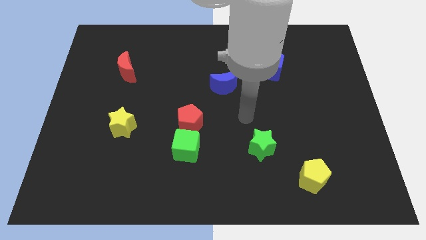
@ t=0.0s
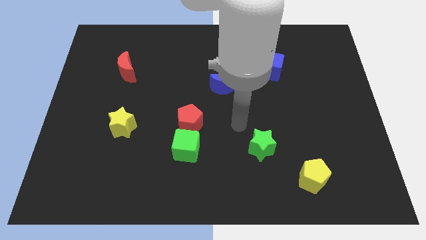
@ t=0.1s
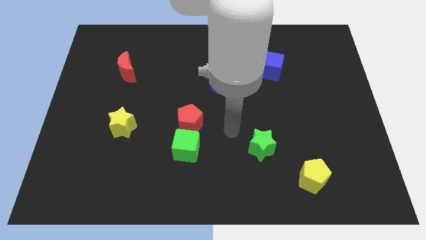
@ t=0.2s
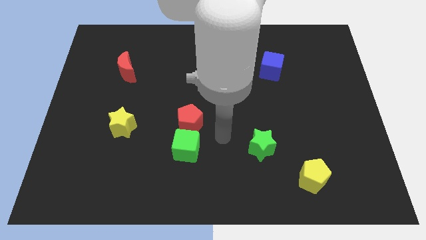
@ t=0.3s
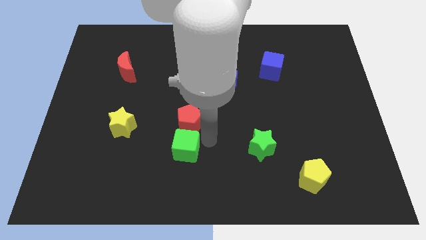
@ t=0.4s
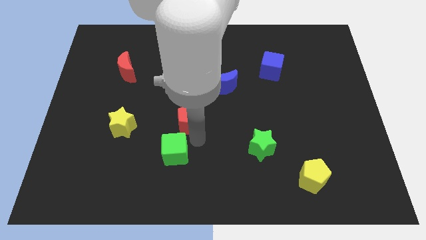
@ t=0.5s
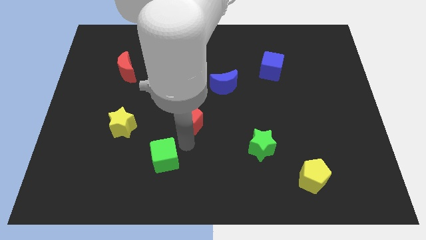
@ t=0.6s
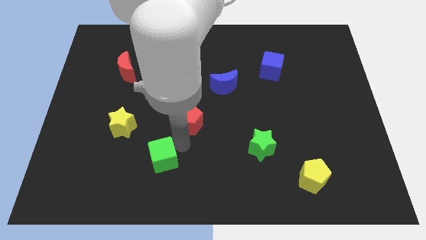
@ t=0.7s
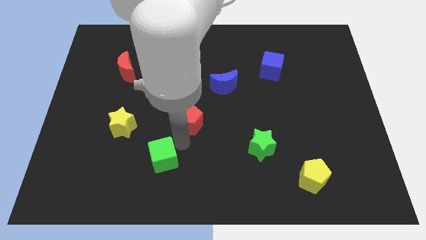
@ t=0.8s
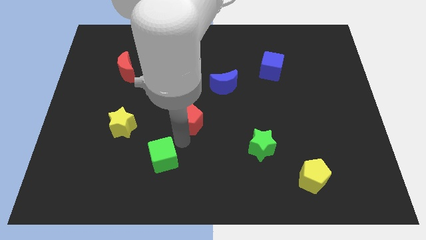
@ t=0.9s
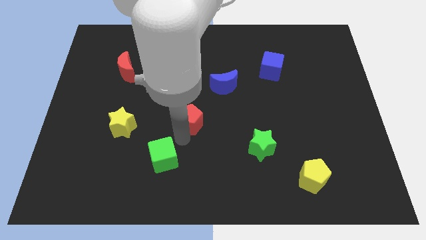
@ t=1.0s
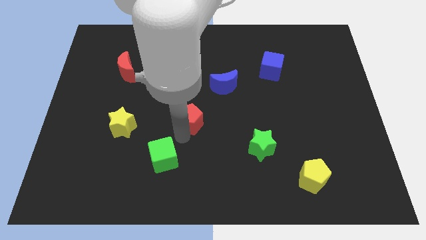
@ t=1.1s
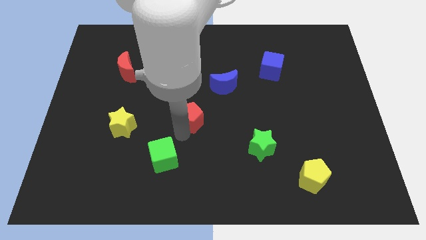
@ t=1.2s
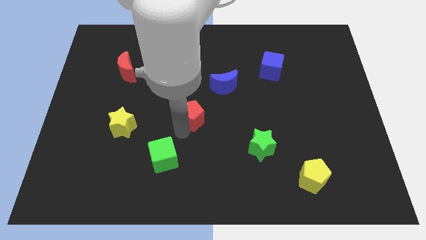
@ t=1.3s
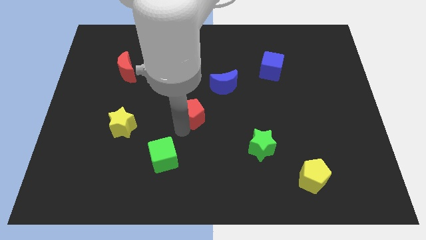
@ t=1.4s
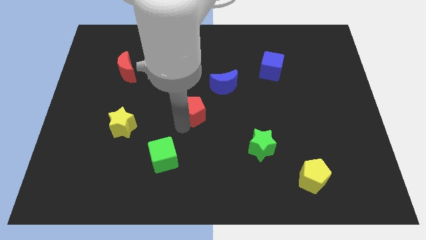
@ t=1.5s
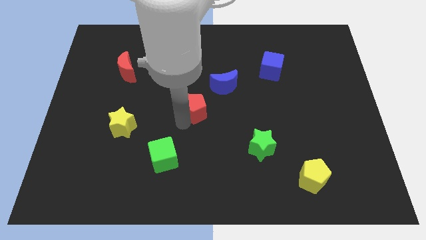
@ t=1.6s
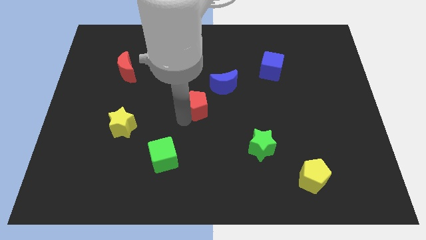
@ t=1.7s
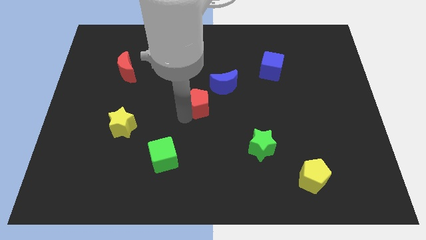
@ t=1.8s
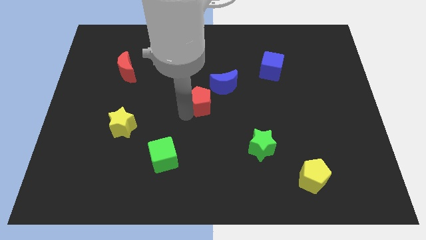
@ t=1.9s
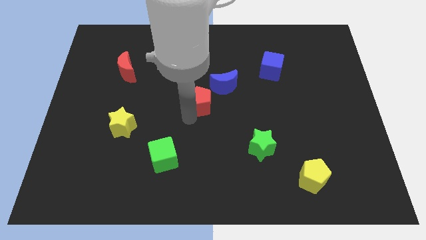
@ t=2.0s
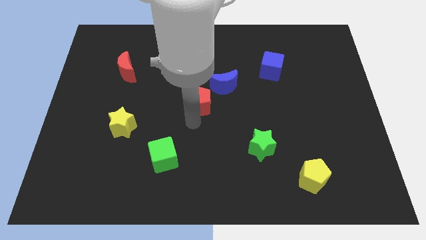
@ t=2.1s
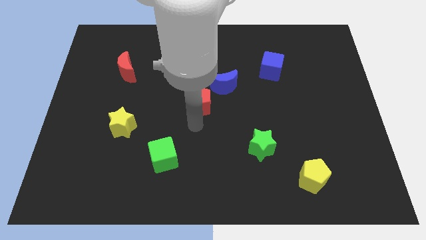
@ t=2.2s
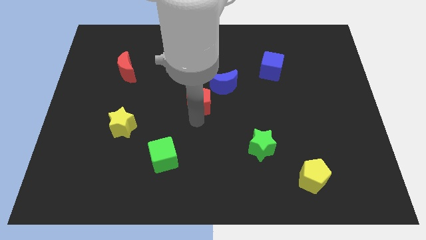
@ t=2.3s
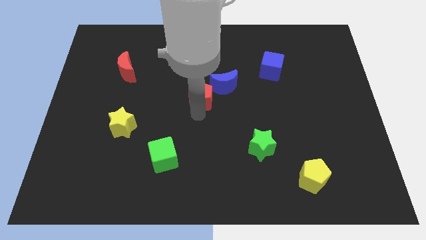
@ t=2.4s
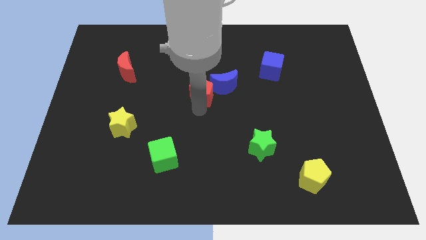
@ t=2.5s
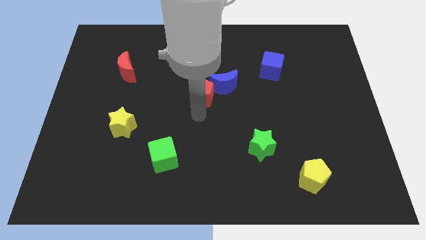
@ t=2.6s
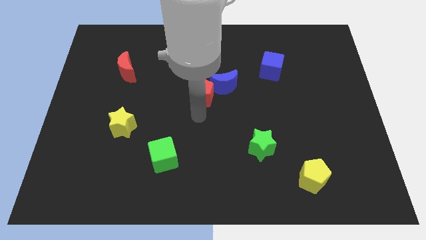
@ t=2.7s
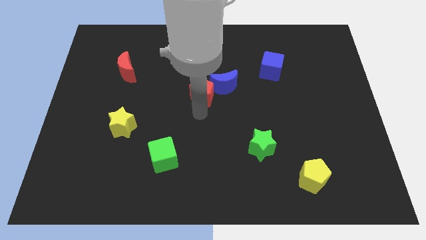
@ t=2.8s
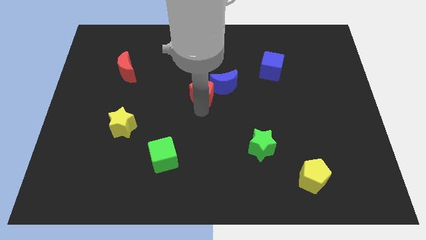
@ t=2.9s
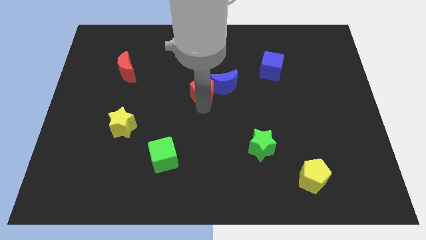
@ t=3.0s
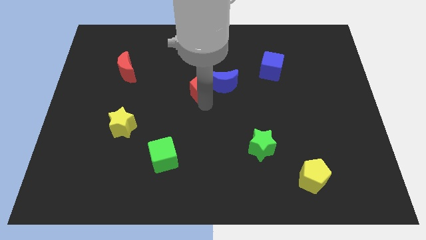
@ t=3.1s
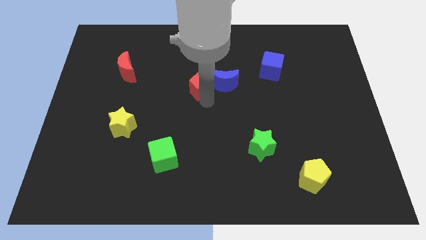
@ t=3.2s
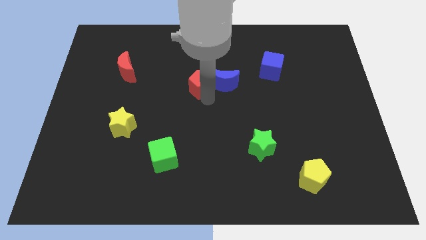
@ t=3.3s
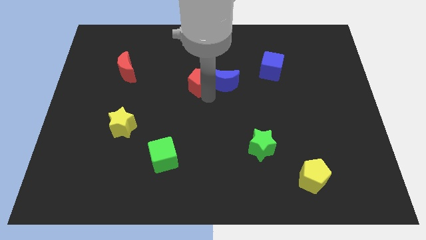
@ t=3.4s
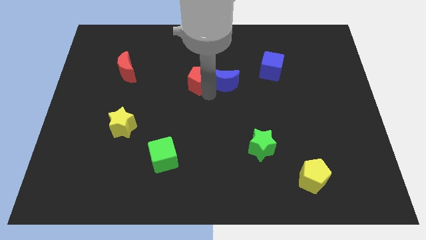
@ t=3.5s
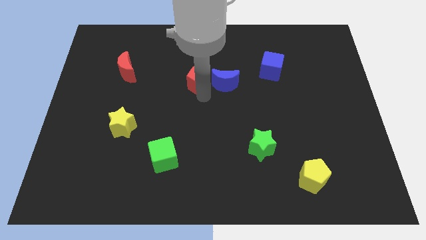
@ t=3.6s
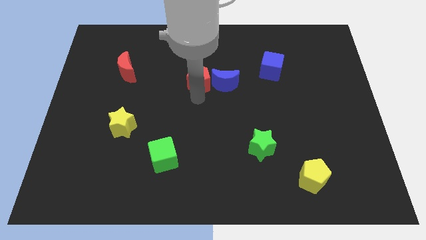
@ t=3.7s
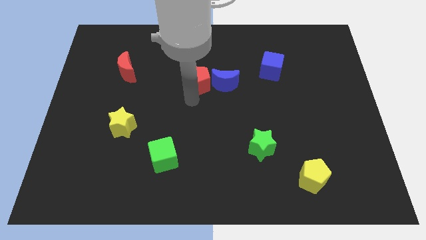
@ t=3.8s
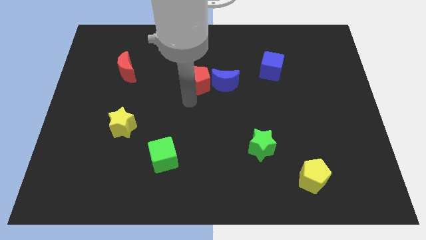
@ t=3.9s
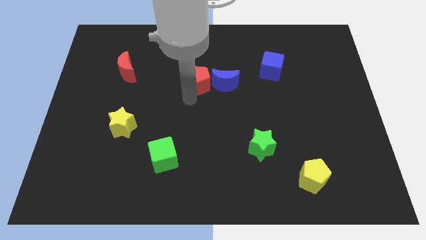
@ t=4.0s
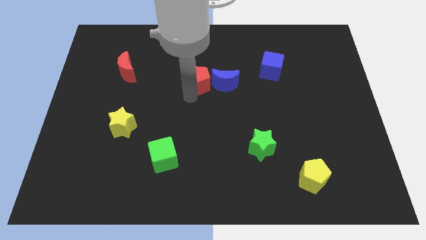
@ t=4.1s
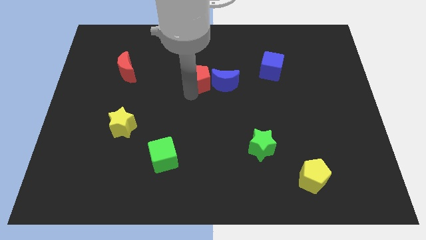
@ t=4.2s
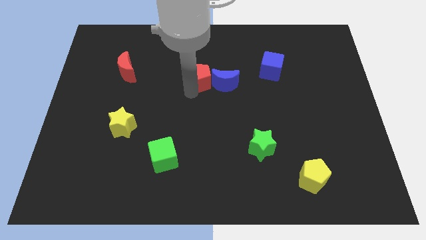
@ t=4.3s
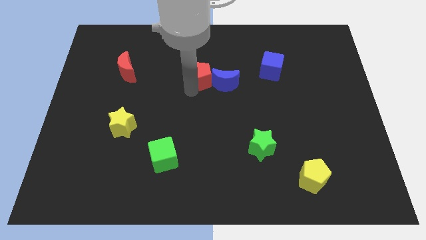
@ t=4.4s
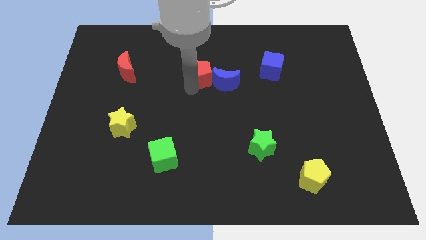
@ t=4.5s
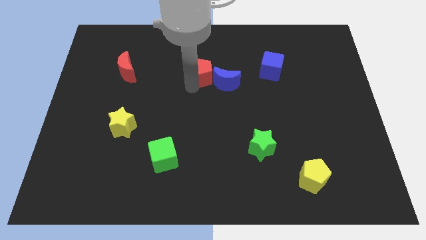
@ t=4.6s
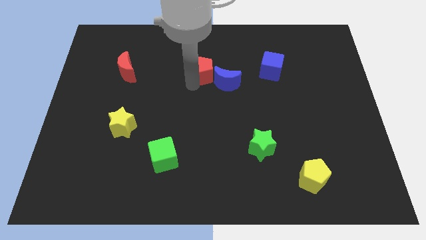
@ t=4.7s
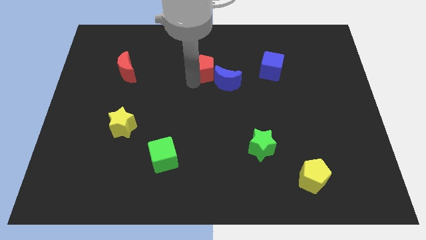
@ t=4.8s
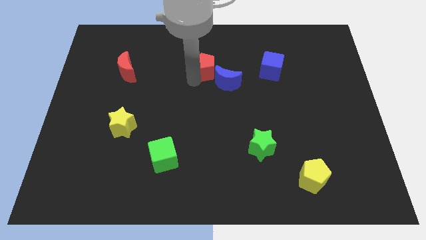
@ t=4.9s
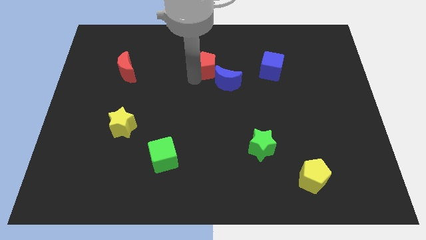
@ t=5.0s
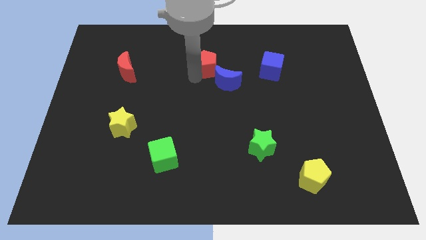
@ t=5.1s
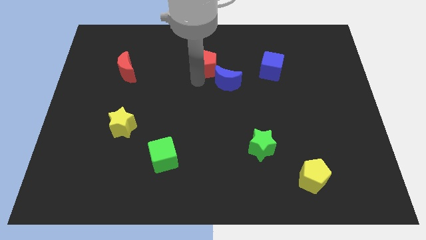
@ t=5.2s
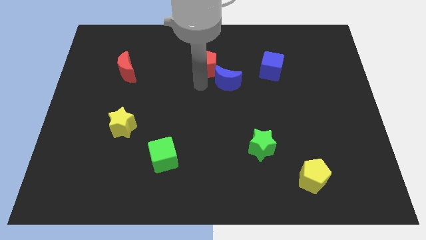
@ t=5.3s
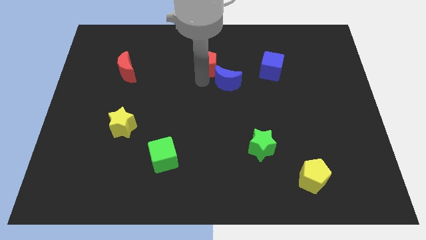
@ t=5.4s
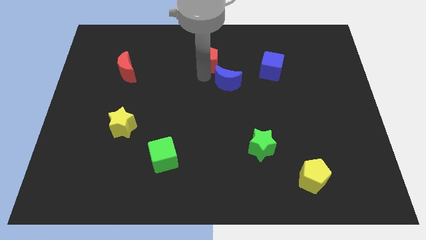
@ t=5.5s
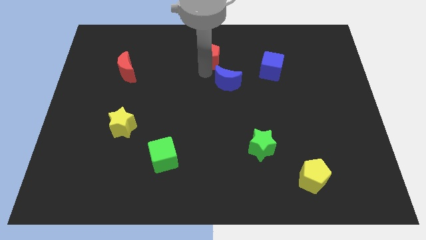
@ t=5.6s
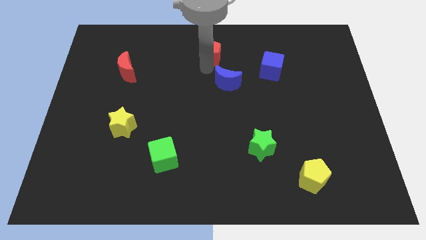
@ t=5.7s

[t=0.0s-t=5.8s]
put the red pentagon to the towards your base

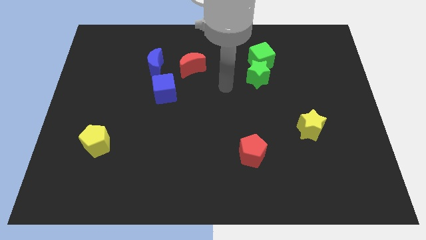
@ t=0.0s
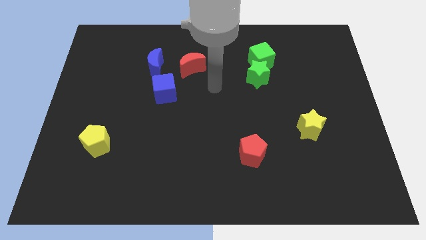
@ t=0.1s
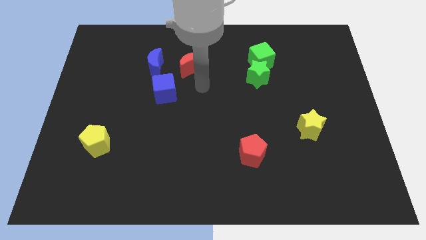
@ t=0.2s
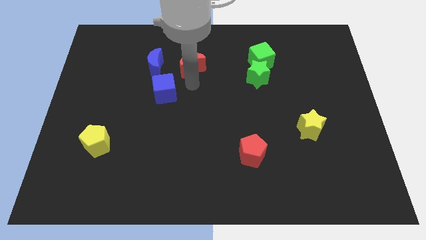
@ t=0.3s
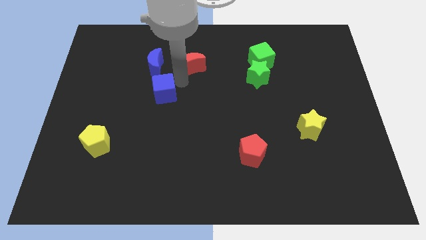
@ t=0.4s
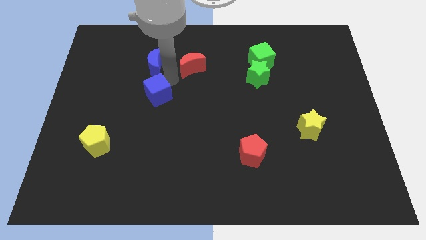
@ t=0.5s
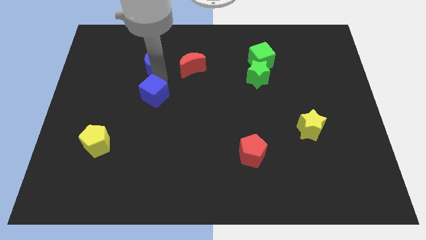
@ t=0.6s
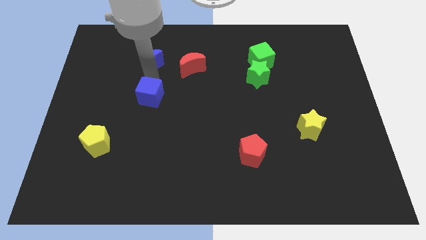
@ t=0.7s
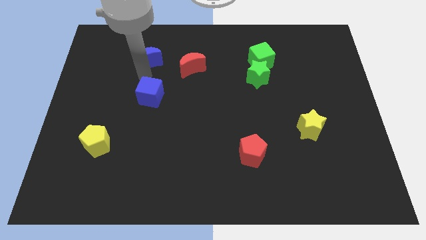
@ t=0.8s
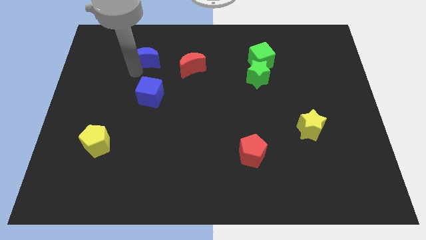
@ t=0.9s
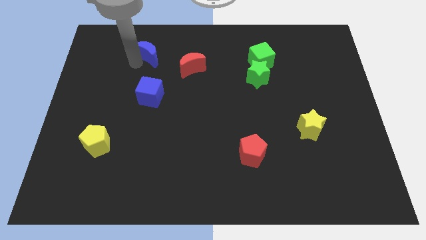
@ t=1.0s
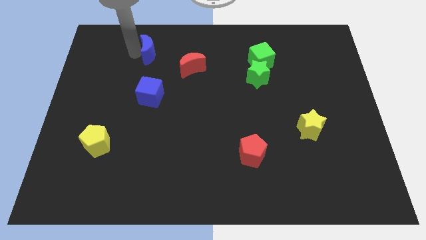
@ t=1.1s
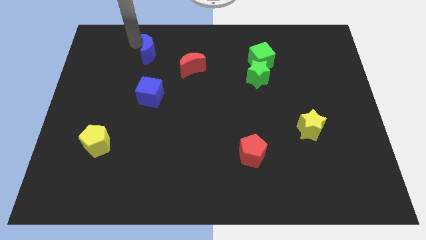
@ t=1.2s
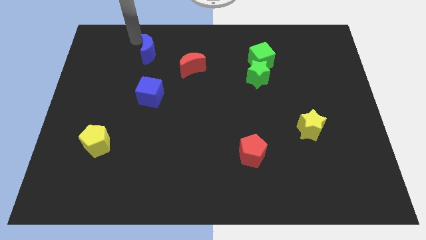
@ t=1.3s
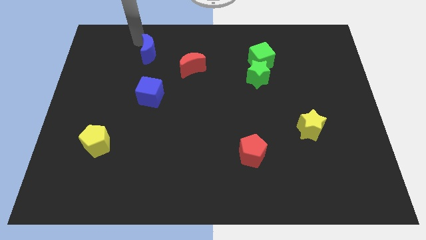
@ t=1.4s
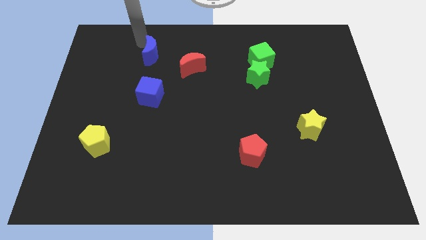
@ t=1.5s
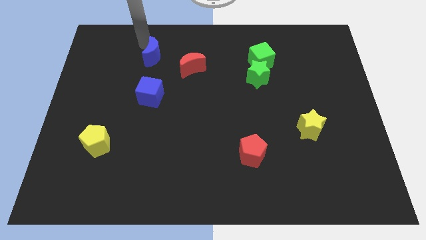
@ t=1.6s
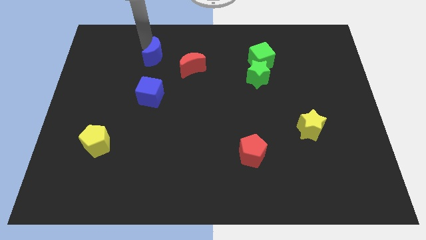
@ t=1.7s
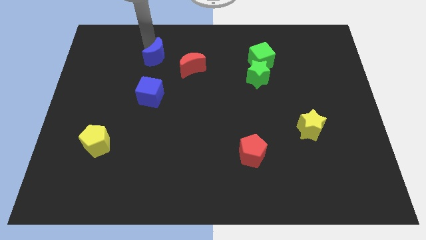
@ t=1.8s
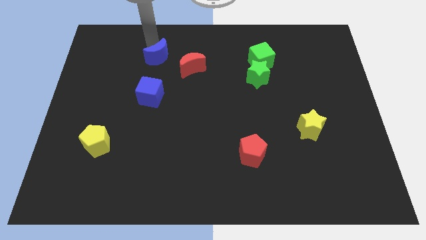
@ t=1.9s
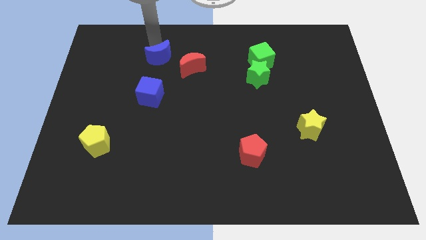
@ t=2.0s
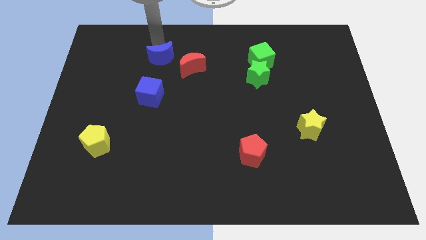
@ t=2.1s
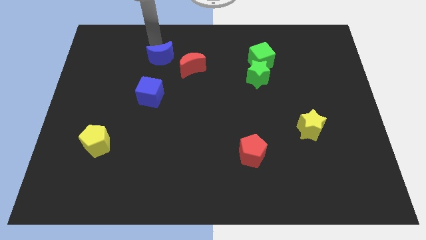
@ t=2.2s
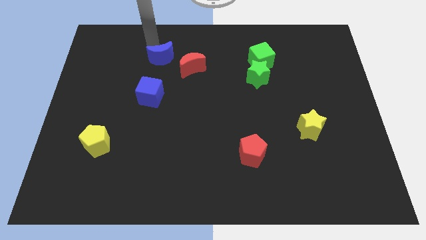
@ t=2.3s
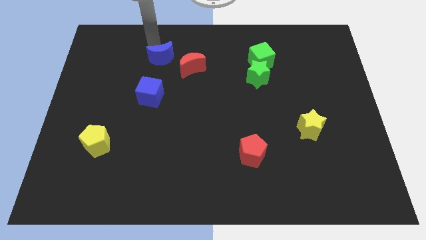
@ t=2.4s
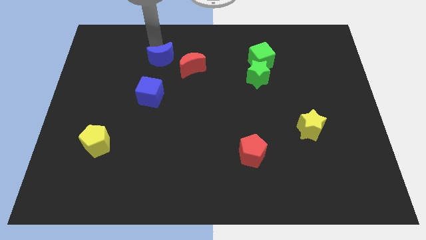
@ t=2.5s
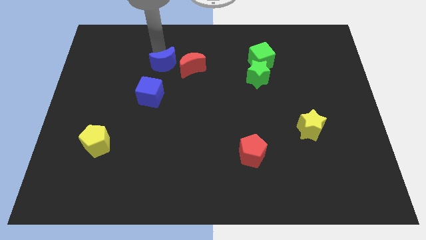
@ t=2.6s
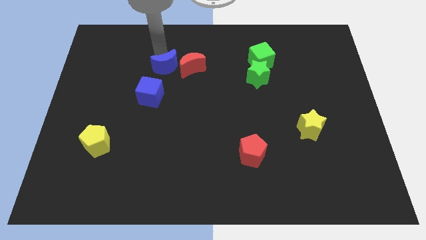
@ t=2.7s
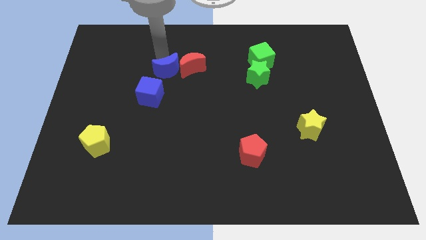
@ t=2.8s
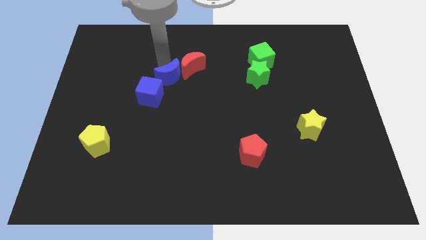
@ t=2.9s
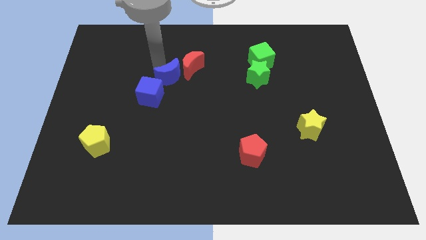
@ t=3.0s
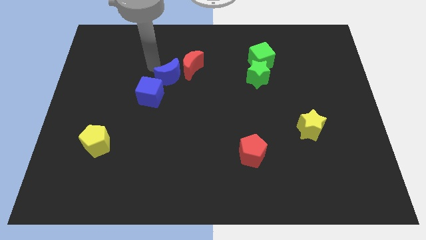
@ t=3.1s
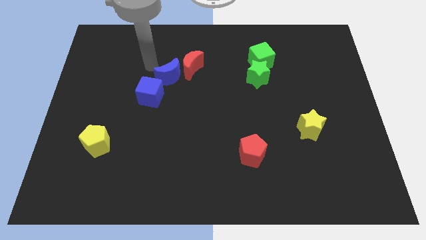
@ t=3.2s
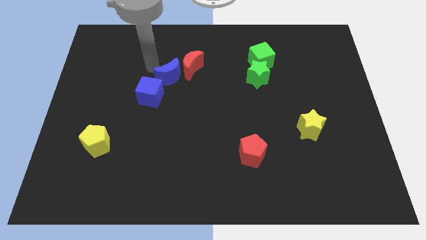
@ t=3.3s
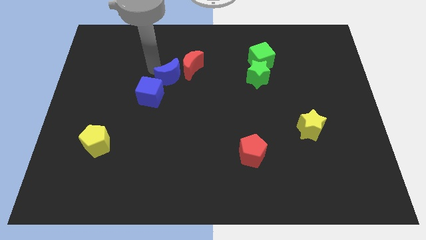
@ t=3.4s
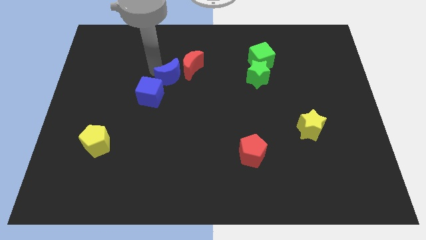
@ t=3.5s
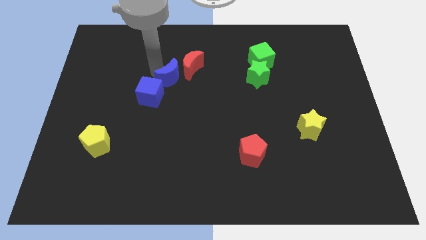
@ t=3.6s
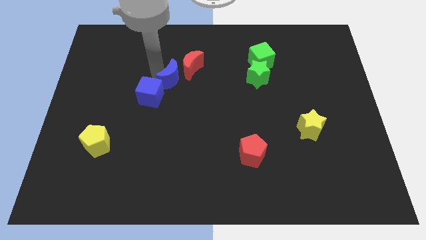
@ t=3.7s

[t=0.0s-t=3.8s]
slide the blue moon to the middle
